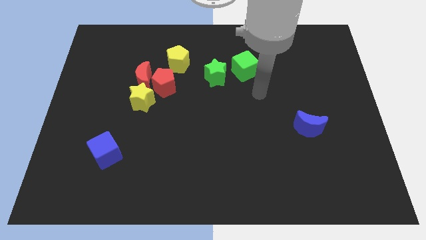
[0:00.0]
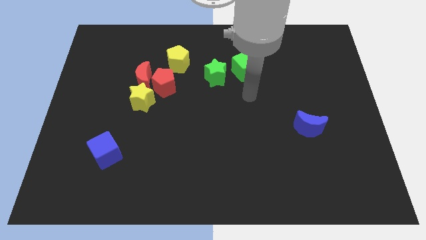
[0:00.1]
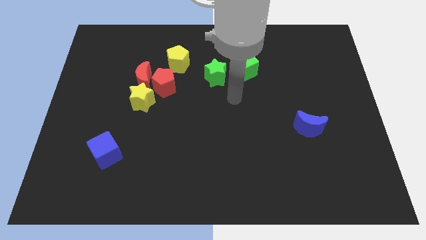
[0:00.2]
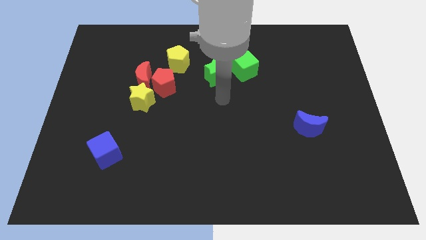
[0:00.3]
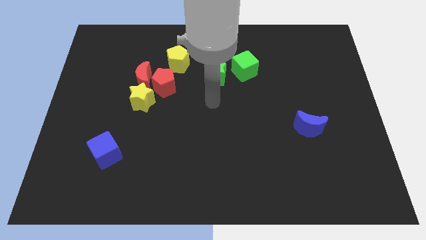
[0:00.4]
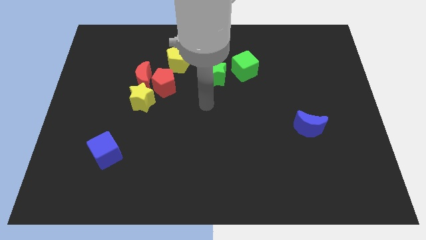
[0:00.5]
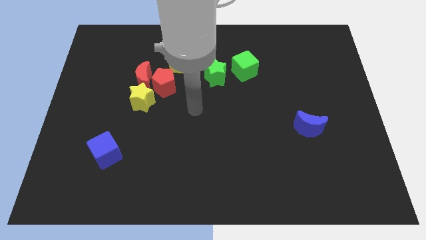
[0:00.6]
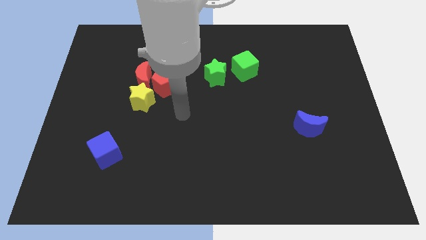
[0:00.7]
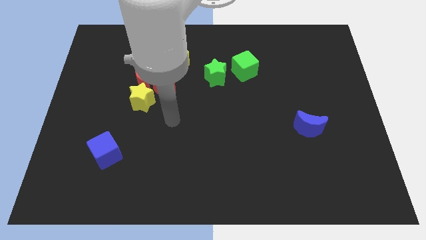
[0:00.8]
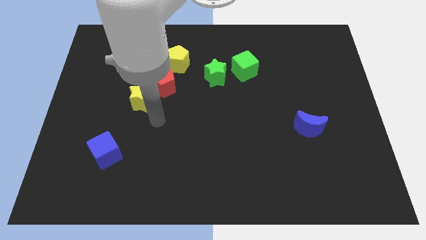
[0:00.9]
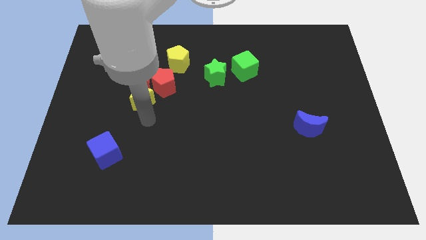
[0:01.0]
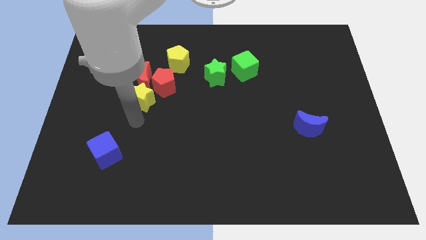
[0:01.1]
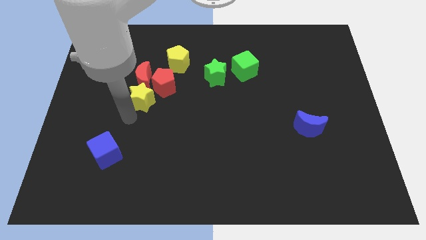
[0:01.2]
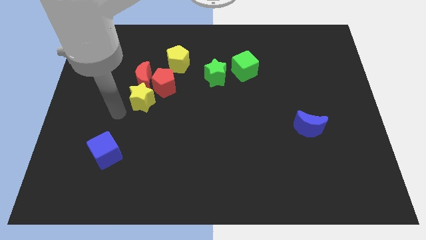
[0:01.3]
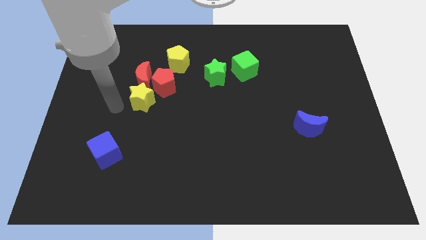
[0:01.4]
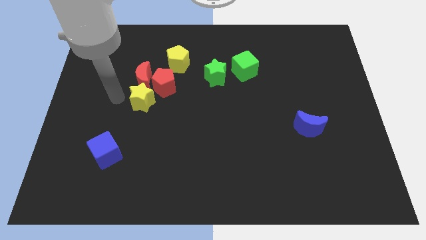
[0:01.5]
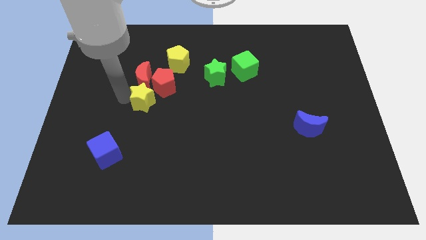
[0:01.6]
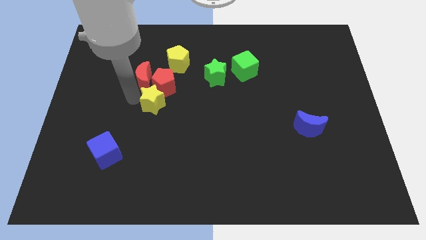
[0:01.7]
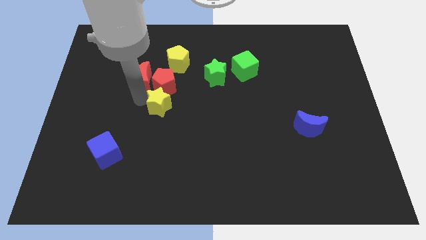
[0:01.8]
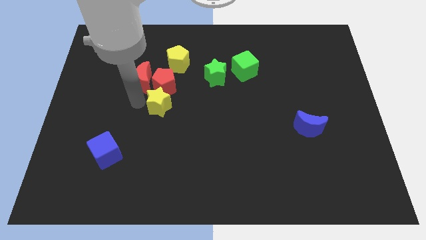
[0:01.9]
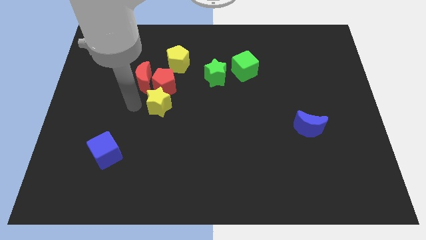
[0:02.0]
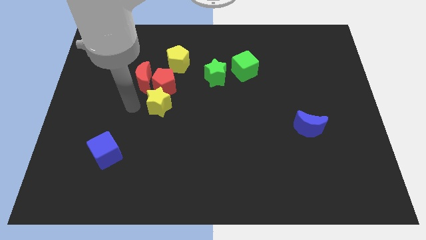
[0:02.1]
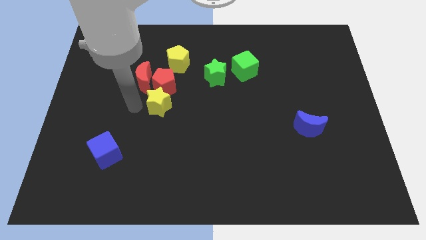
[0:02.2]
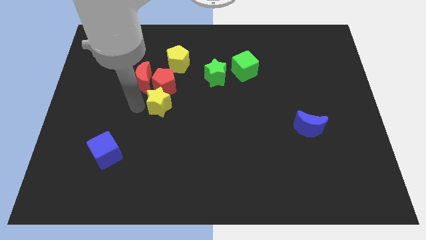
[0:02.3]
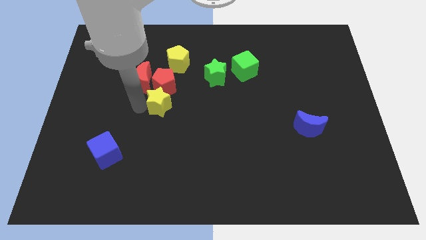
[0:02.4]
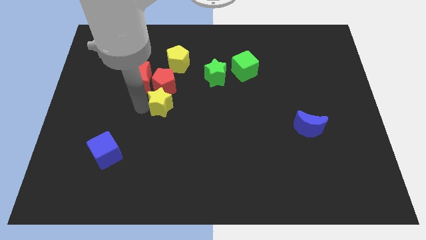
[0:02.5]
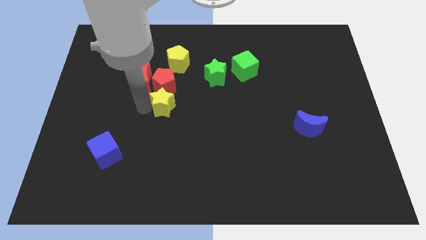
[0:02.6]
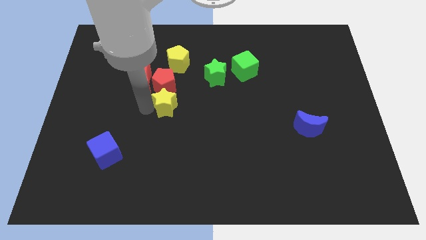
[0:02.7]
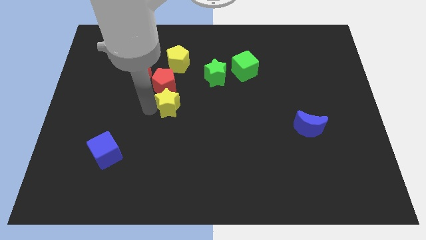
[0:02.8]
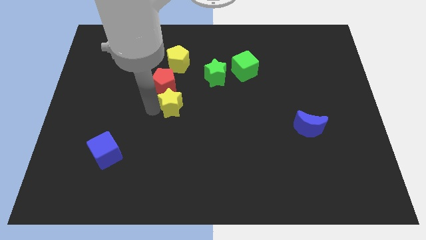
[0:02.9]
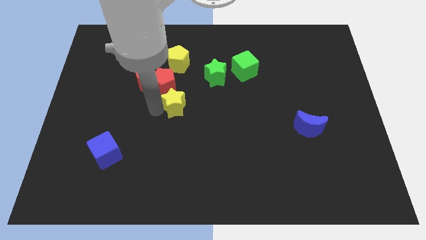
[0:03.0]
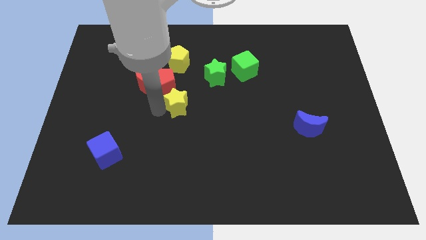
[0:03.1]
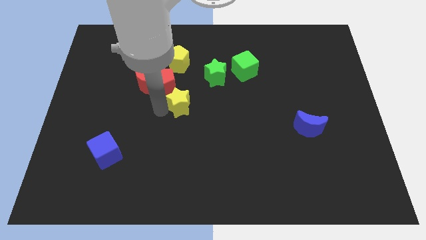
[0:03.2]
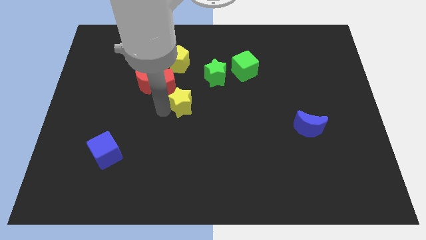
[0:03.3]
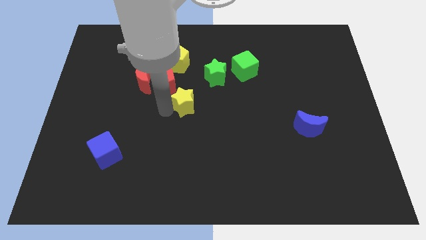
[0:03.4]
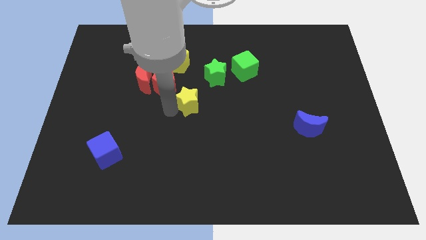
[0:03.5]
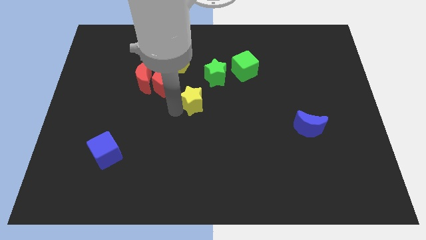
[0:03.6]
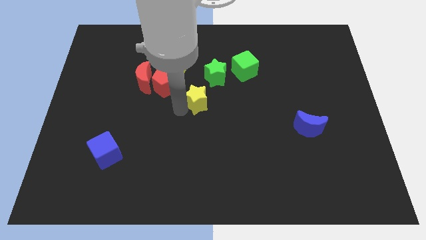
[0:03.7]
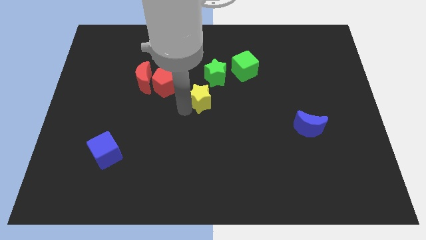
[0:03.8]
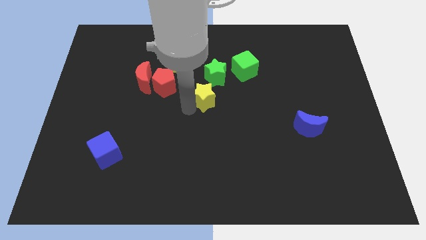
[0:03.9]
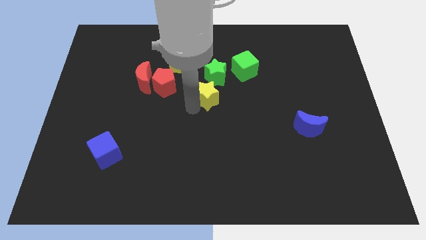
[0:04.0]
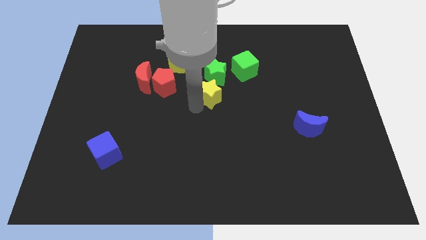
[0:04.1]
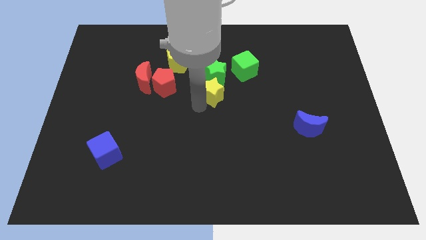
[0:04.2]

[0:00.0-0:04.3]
move the yellow star close to the green star

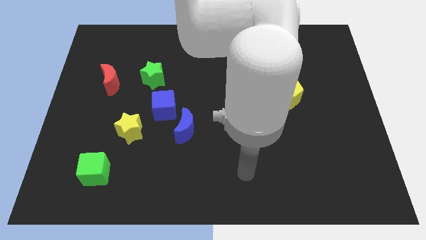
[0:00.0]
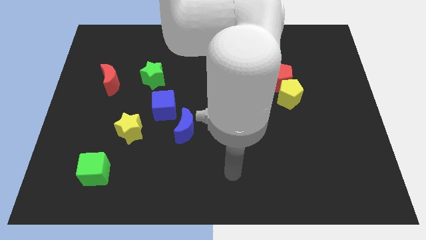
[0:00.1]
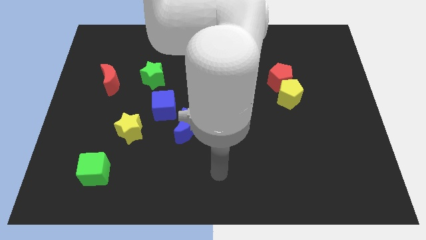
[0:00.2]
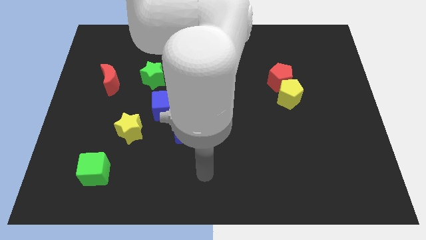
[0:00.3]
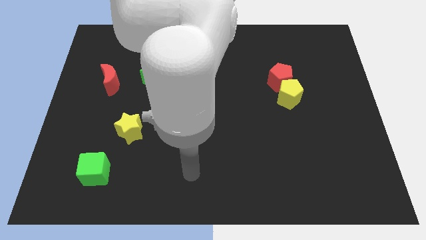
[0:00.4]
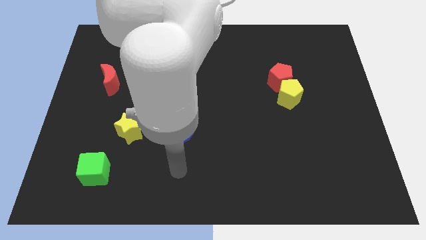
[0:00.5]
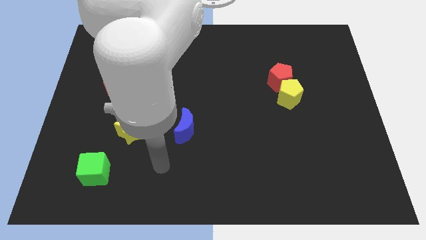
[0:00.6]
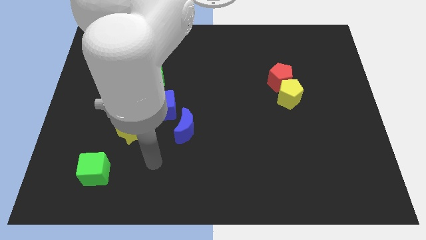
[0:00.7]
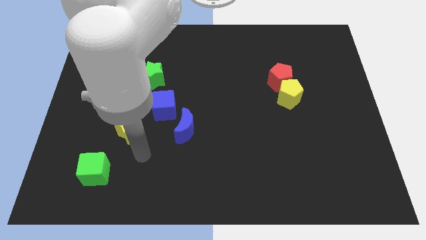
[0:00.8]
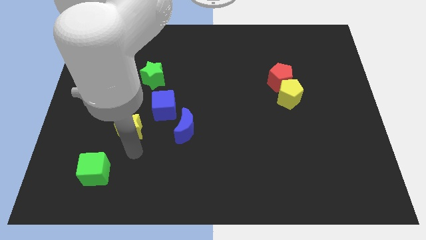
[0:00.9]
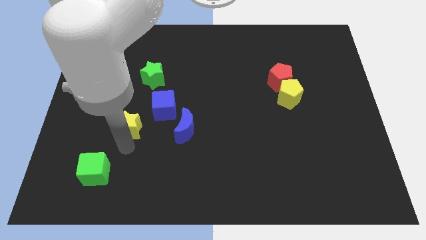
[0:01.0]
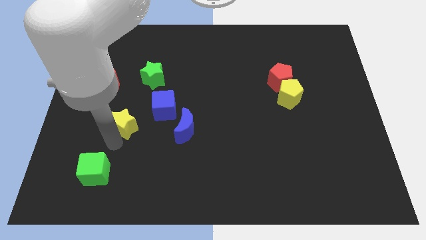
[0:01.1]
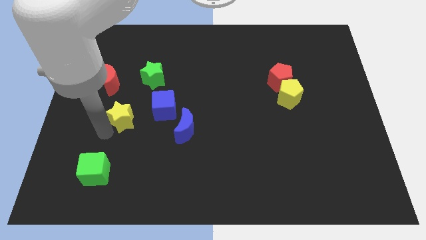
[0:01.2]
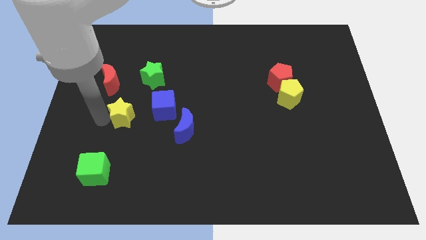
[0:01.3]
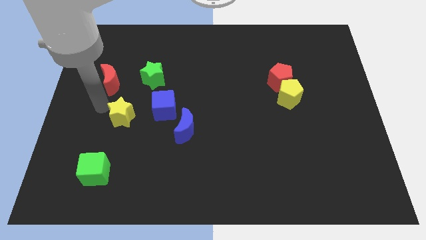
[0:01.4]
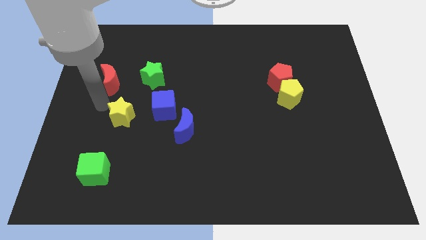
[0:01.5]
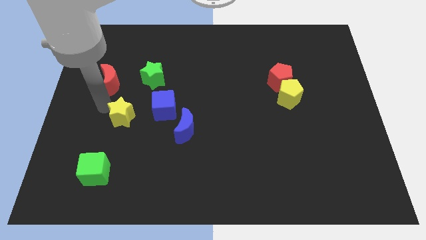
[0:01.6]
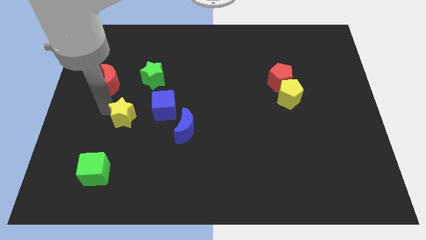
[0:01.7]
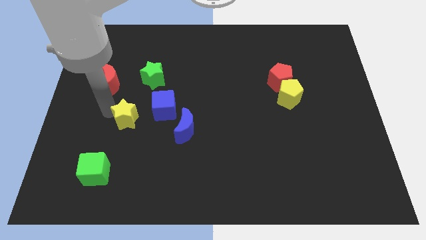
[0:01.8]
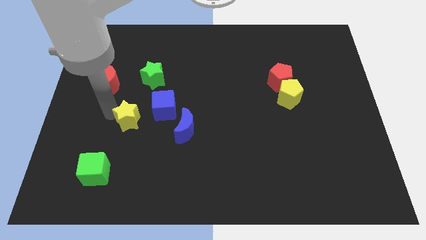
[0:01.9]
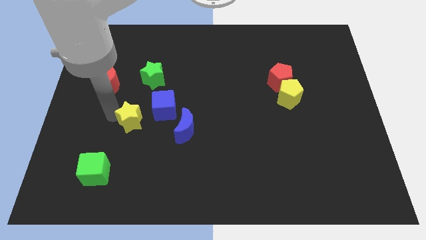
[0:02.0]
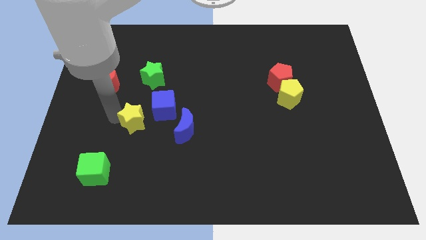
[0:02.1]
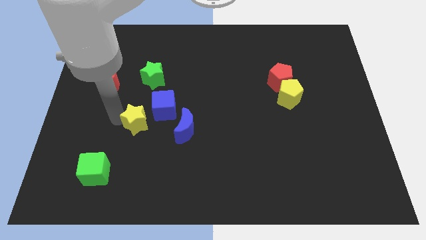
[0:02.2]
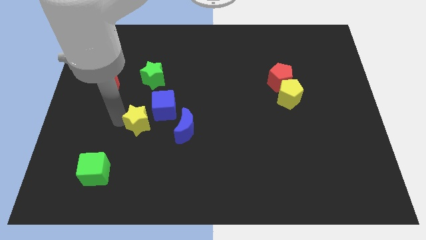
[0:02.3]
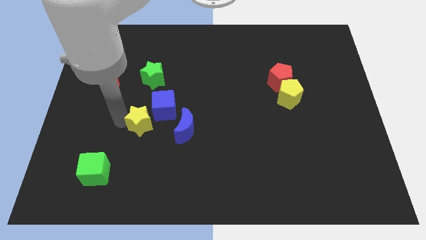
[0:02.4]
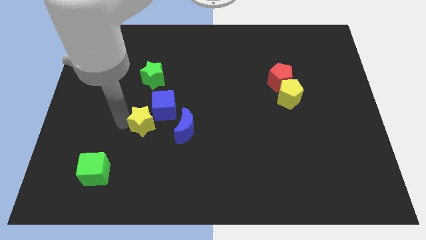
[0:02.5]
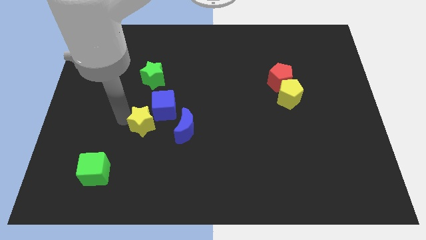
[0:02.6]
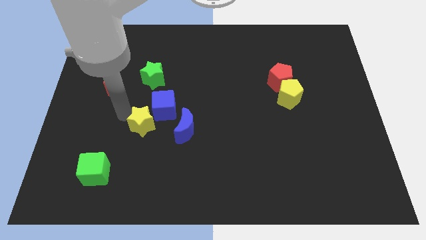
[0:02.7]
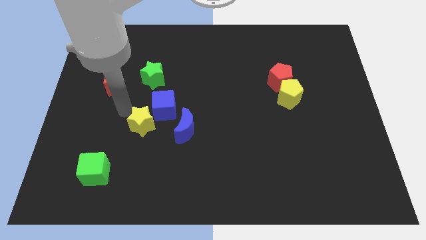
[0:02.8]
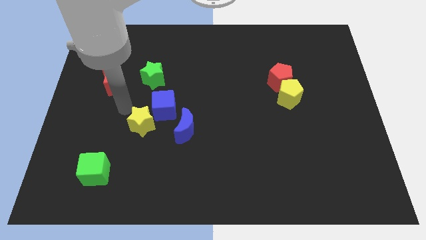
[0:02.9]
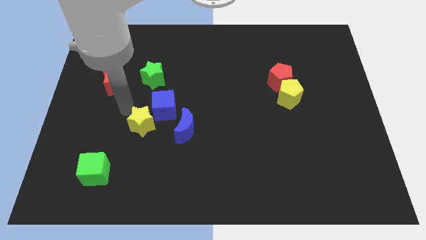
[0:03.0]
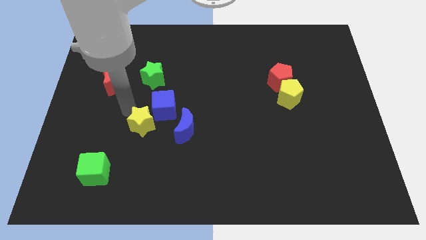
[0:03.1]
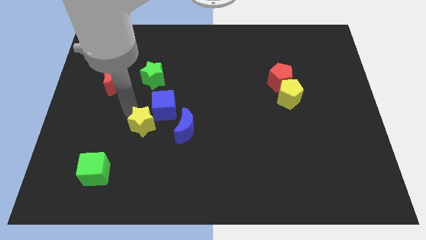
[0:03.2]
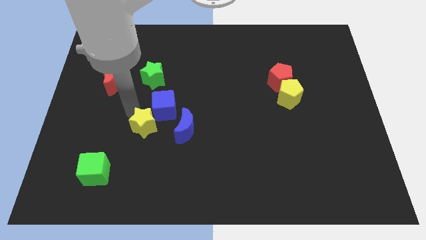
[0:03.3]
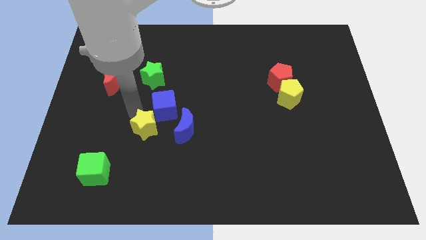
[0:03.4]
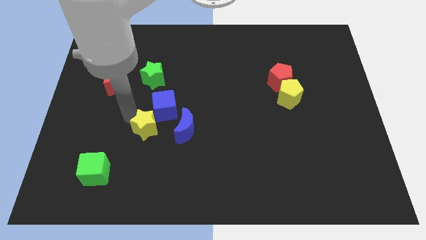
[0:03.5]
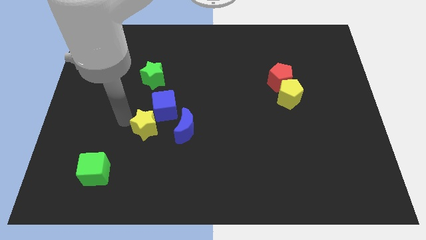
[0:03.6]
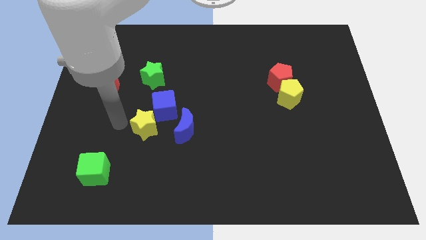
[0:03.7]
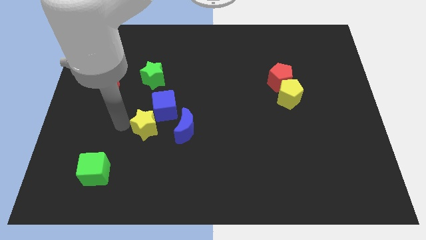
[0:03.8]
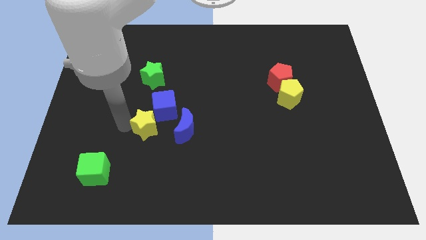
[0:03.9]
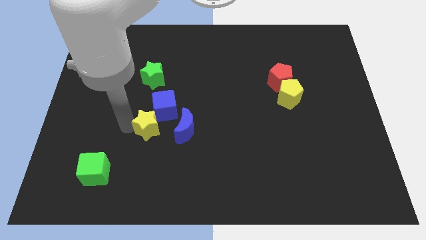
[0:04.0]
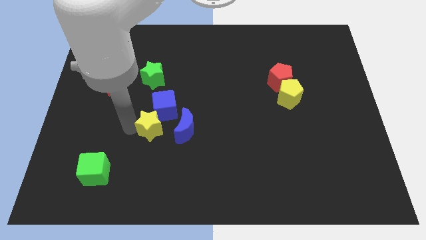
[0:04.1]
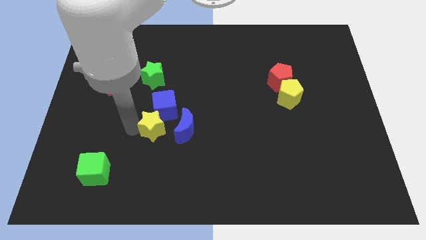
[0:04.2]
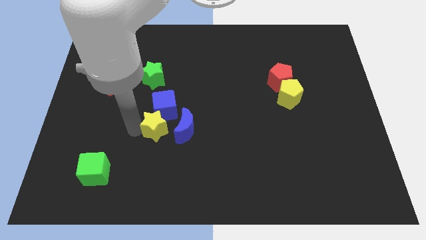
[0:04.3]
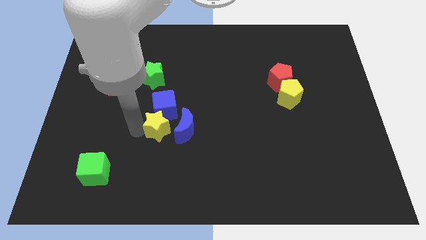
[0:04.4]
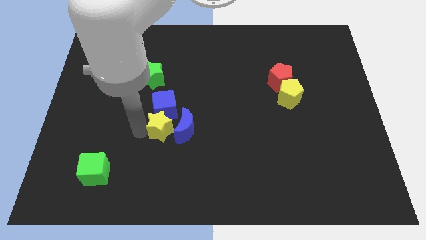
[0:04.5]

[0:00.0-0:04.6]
push the yellow star close to the blue moon
